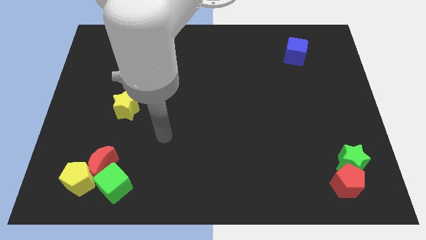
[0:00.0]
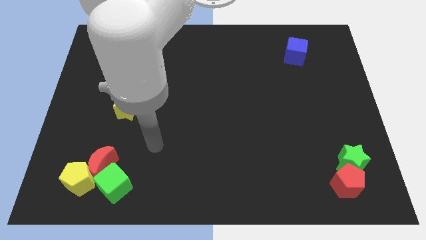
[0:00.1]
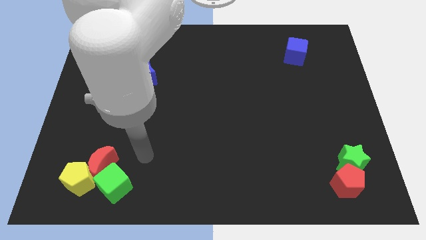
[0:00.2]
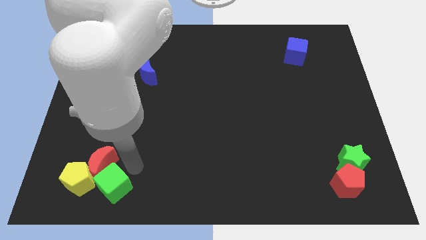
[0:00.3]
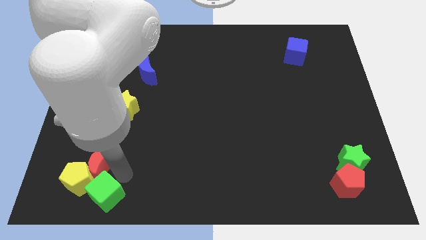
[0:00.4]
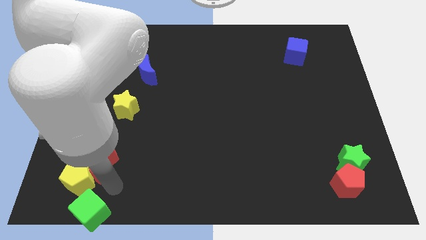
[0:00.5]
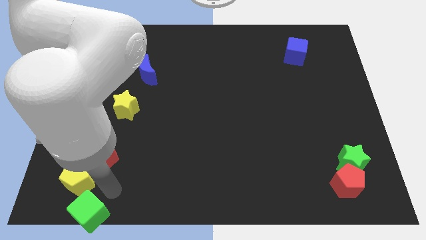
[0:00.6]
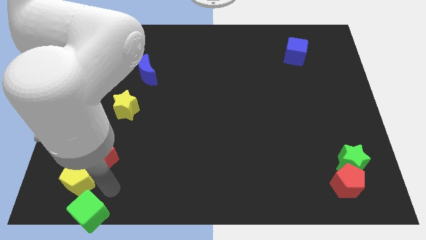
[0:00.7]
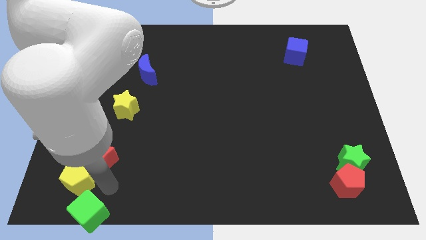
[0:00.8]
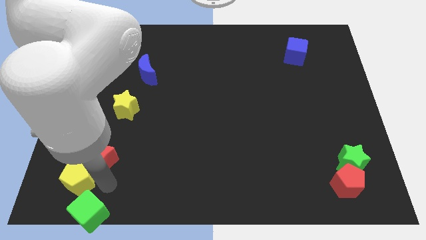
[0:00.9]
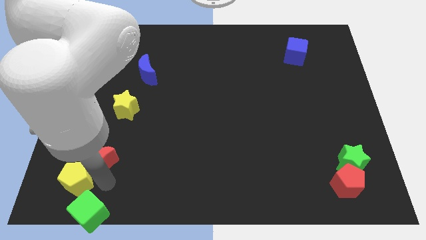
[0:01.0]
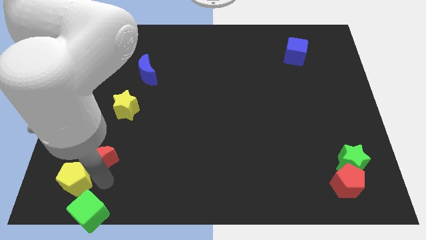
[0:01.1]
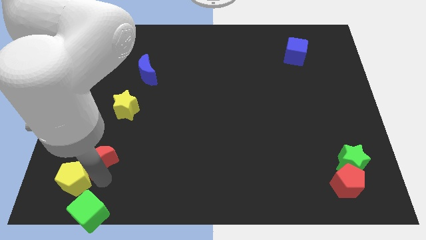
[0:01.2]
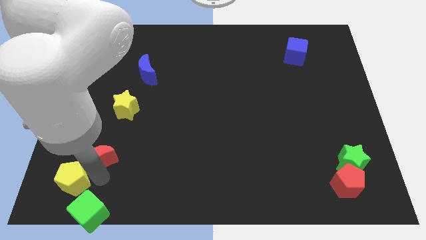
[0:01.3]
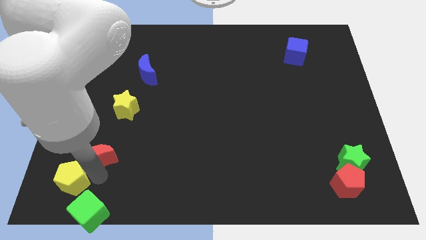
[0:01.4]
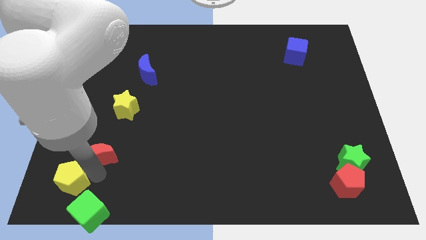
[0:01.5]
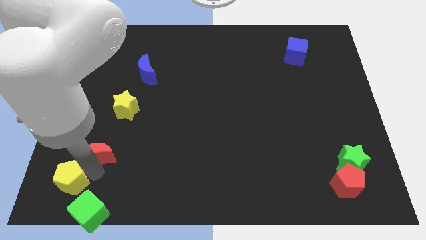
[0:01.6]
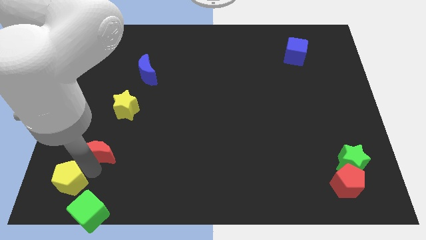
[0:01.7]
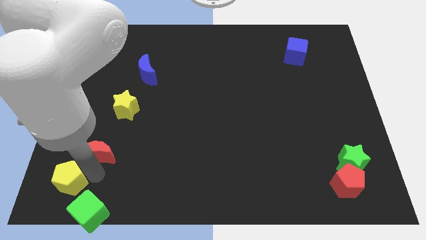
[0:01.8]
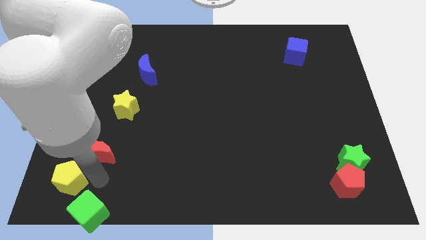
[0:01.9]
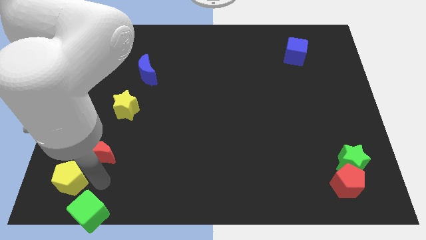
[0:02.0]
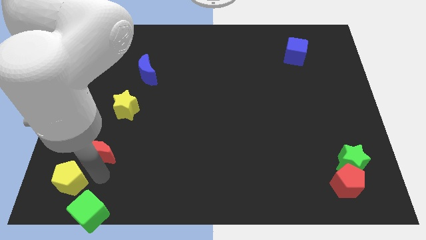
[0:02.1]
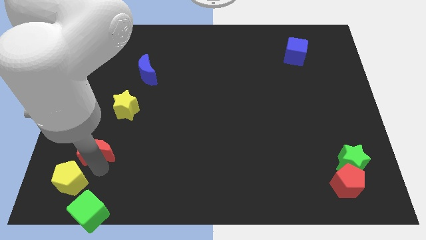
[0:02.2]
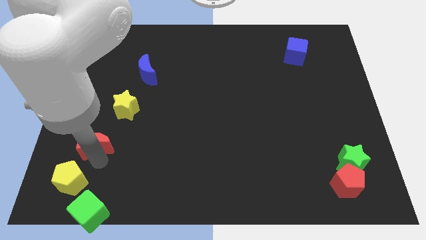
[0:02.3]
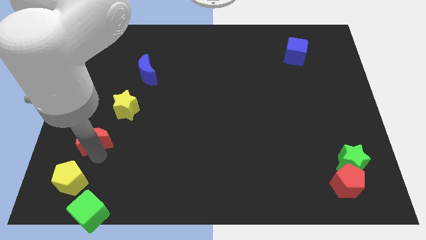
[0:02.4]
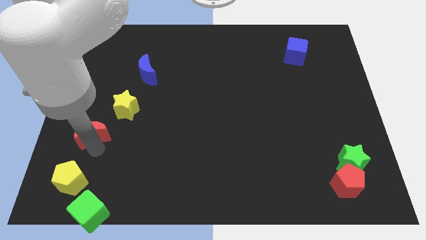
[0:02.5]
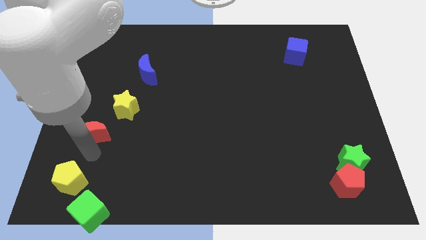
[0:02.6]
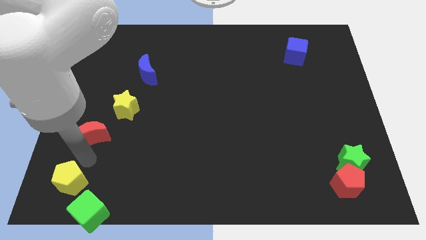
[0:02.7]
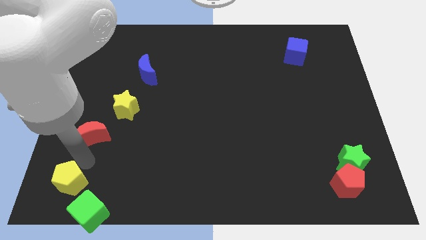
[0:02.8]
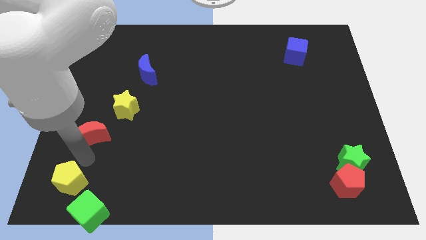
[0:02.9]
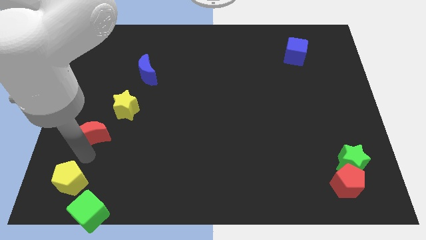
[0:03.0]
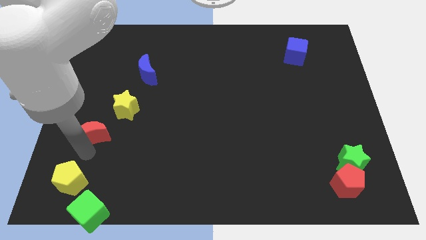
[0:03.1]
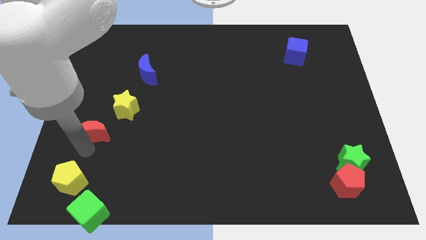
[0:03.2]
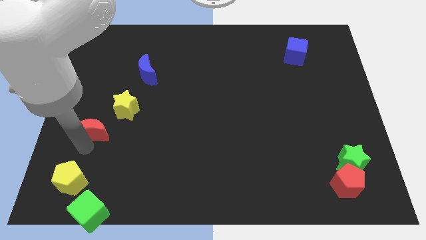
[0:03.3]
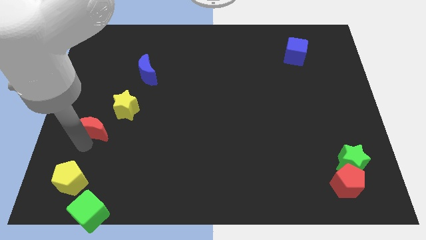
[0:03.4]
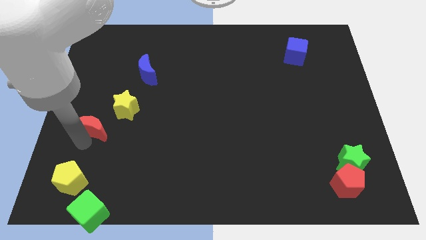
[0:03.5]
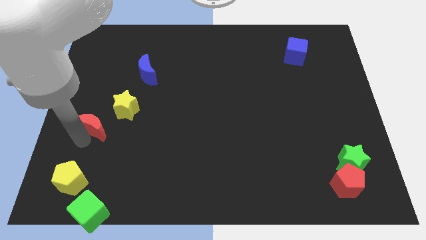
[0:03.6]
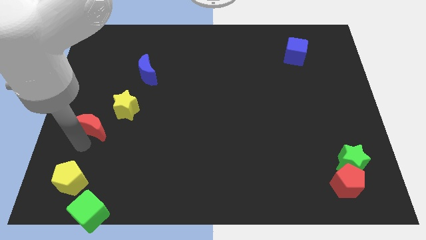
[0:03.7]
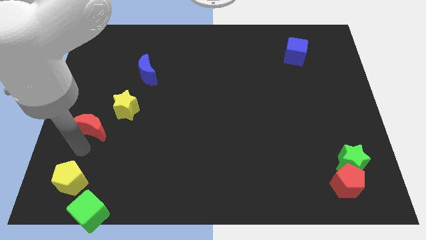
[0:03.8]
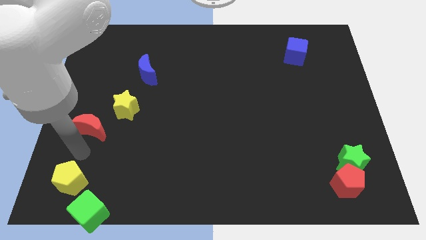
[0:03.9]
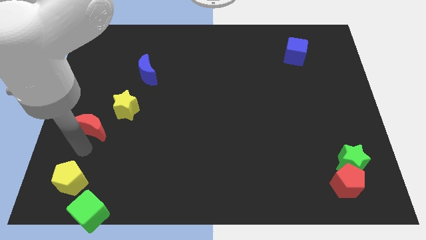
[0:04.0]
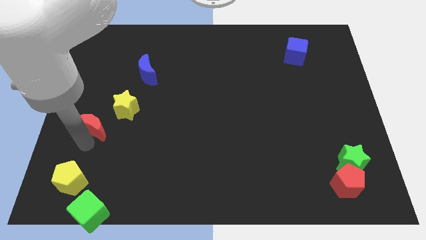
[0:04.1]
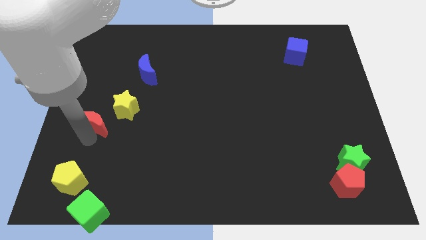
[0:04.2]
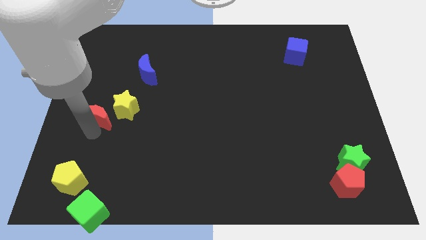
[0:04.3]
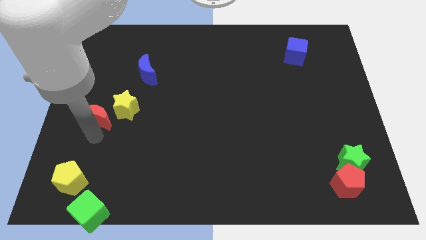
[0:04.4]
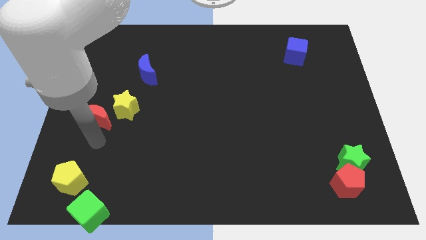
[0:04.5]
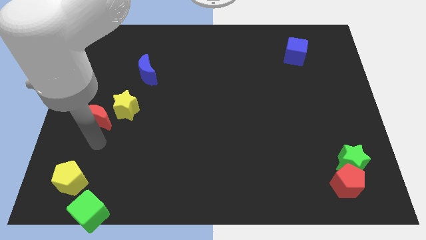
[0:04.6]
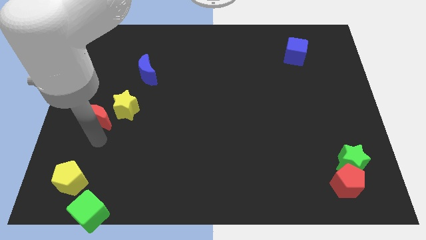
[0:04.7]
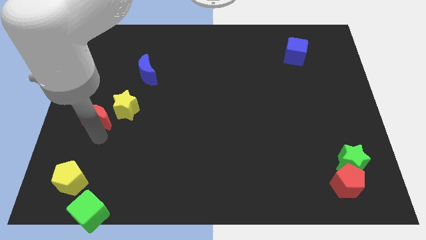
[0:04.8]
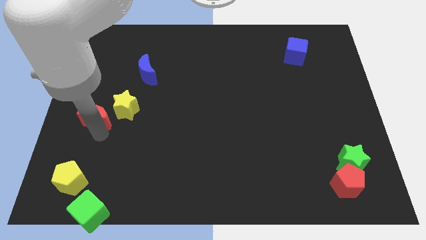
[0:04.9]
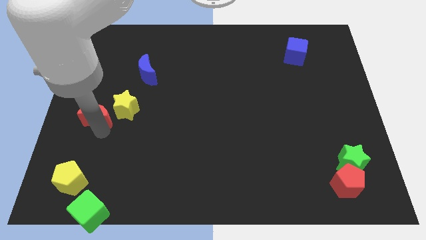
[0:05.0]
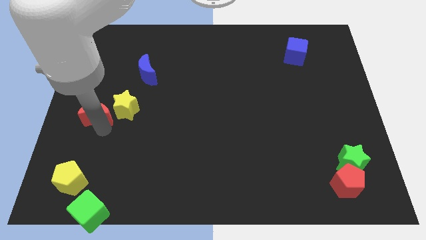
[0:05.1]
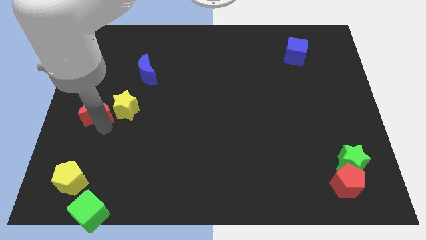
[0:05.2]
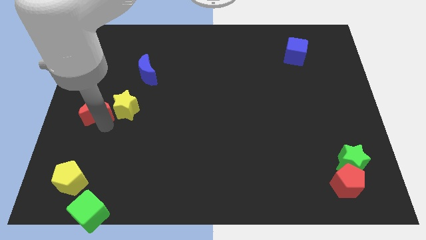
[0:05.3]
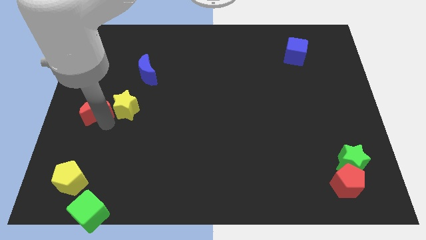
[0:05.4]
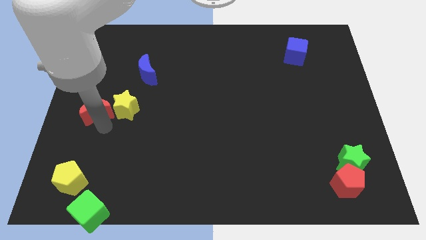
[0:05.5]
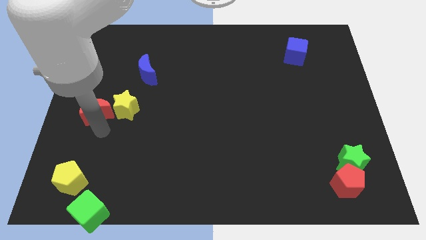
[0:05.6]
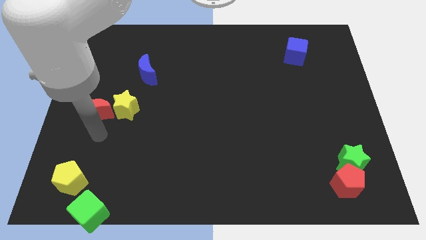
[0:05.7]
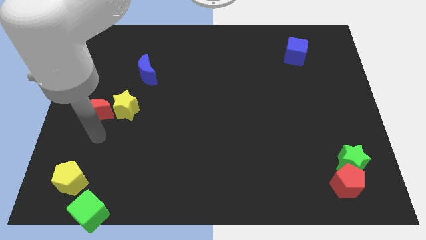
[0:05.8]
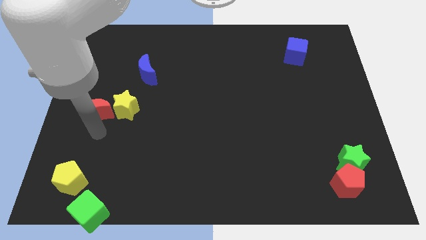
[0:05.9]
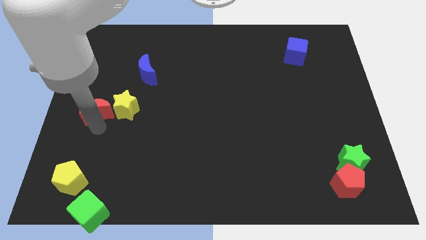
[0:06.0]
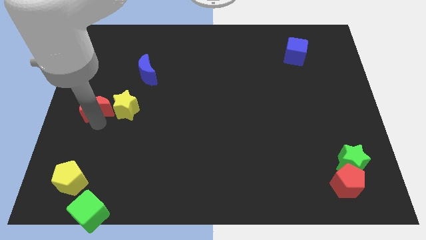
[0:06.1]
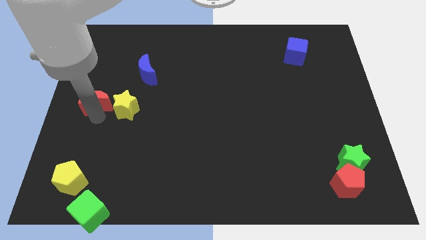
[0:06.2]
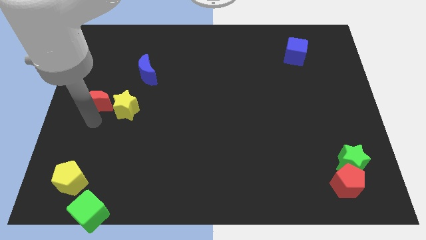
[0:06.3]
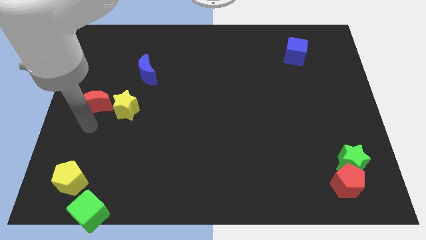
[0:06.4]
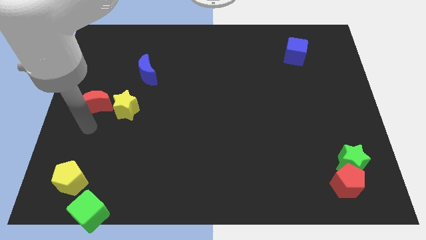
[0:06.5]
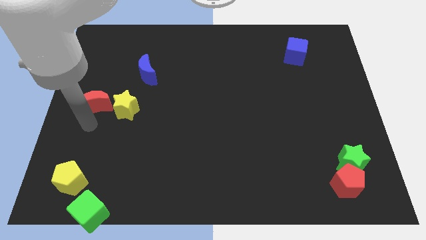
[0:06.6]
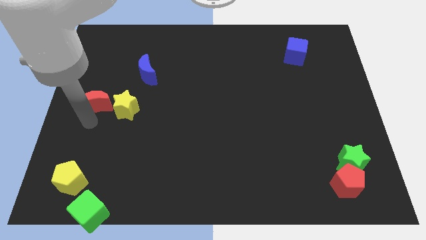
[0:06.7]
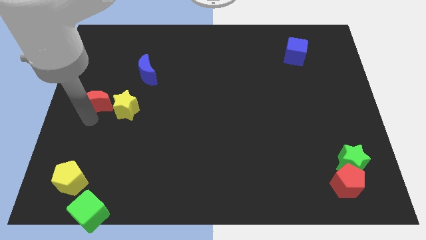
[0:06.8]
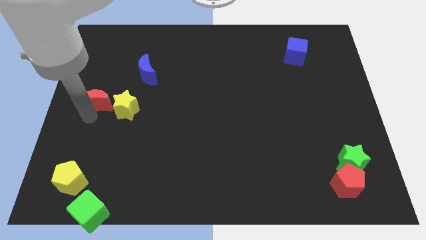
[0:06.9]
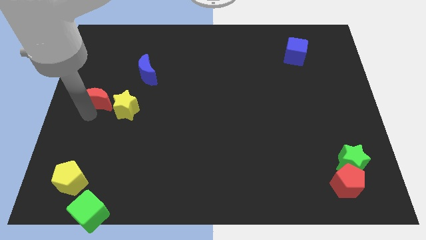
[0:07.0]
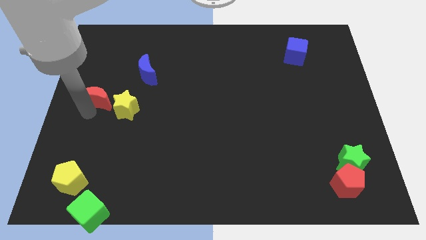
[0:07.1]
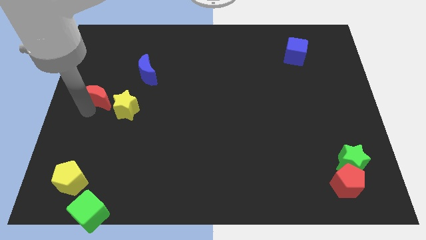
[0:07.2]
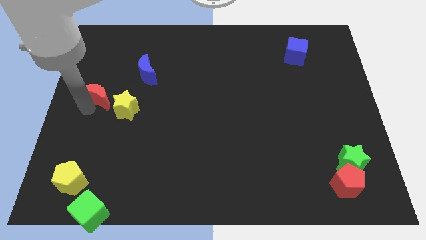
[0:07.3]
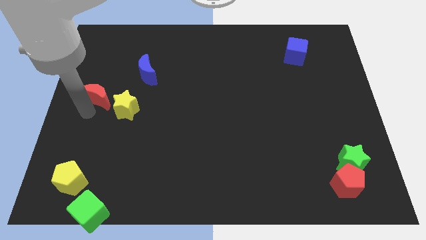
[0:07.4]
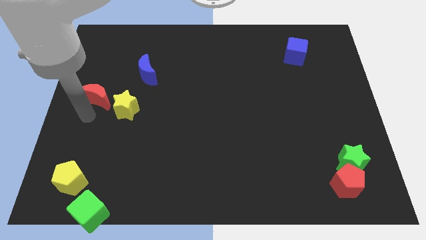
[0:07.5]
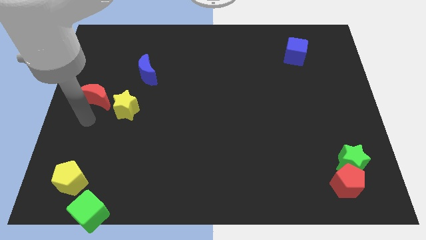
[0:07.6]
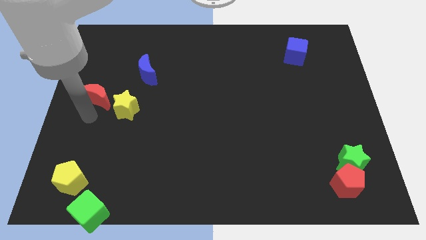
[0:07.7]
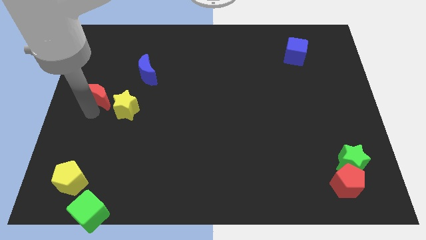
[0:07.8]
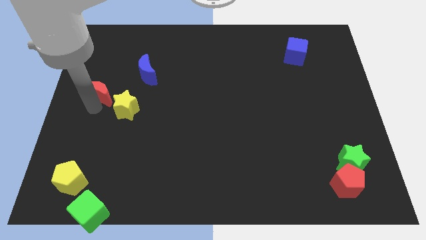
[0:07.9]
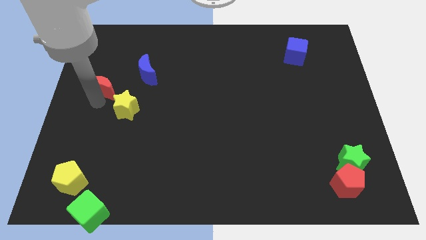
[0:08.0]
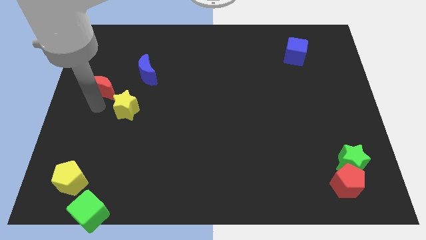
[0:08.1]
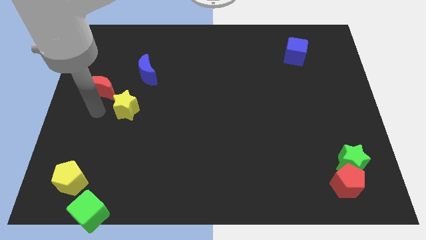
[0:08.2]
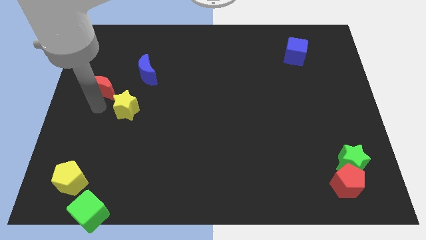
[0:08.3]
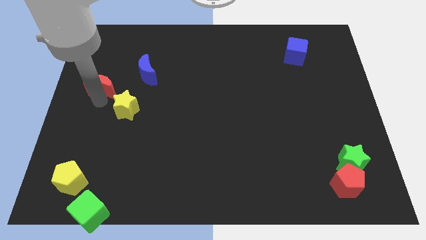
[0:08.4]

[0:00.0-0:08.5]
put the red moon left of the blue moon
